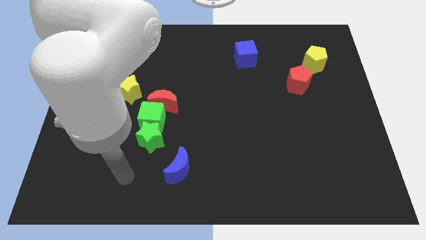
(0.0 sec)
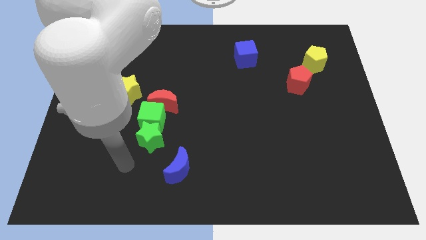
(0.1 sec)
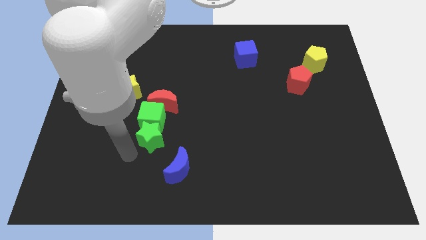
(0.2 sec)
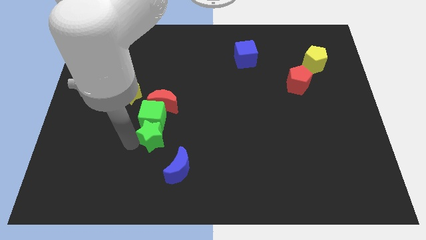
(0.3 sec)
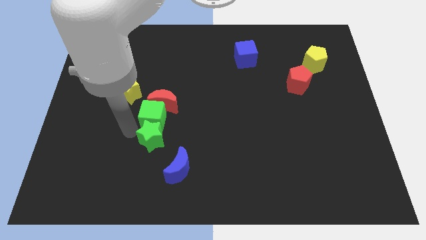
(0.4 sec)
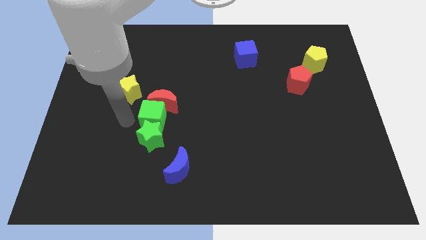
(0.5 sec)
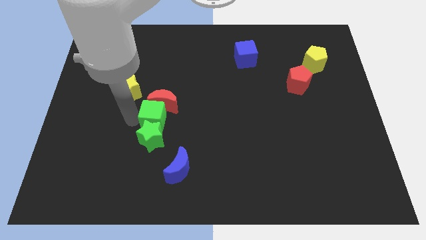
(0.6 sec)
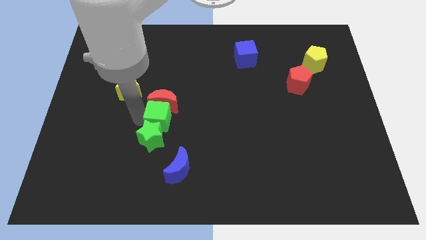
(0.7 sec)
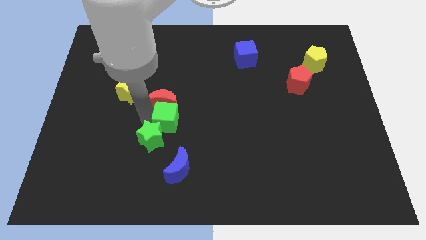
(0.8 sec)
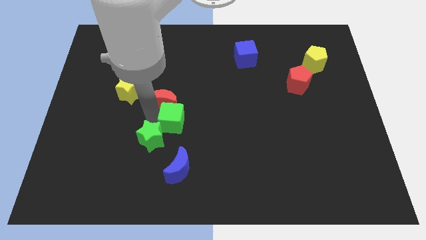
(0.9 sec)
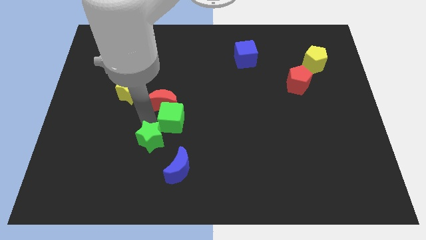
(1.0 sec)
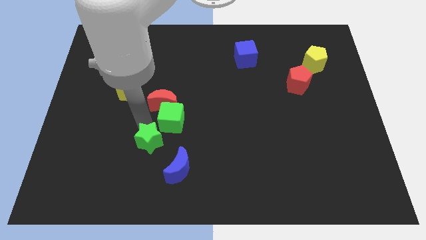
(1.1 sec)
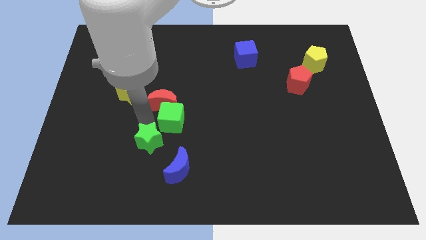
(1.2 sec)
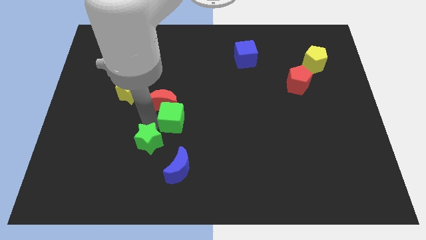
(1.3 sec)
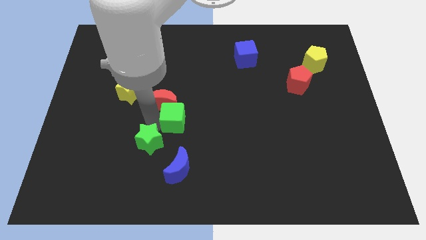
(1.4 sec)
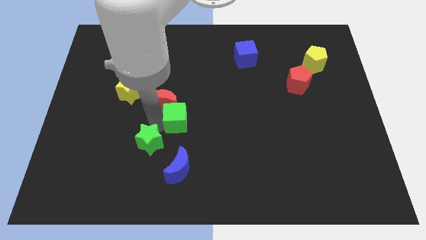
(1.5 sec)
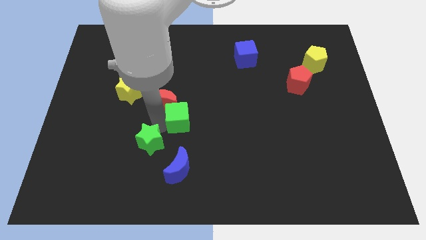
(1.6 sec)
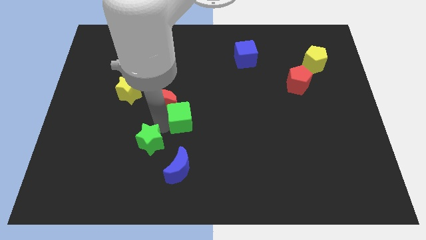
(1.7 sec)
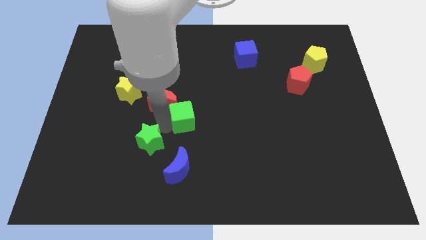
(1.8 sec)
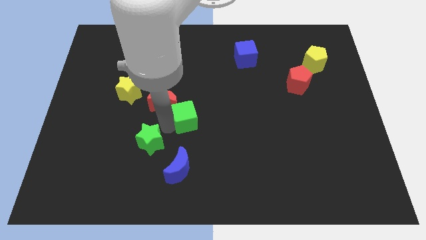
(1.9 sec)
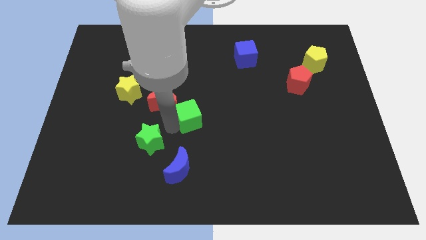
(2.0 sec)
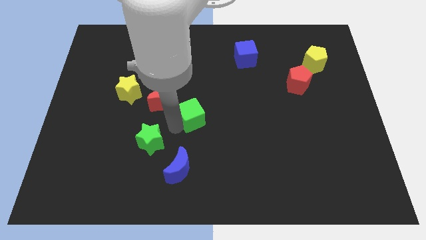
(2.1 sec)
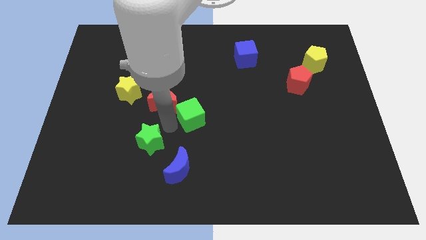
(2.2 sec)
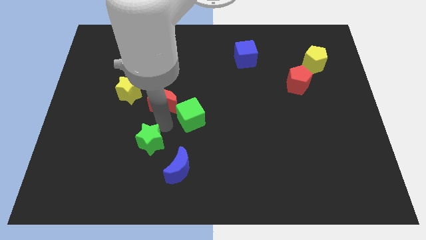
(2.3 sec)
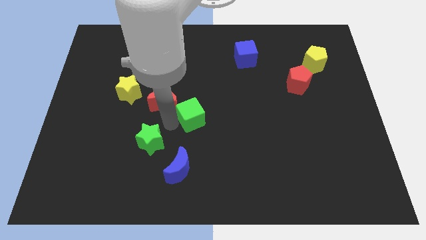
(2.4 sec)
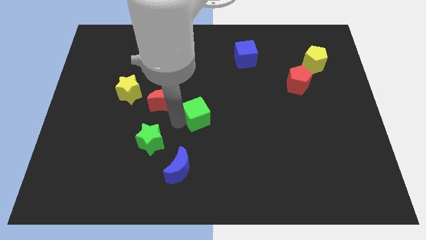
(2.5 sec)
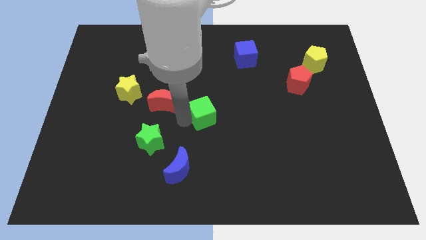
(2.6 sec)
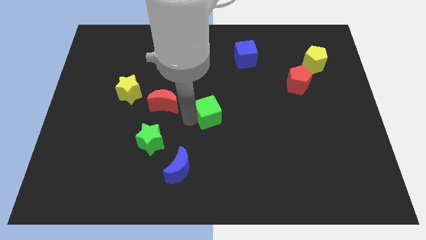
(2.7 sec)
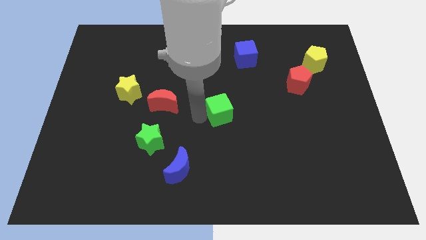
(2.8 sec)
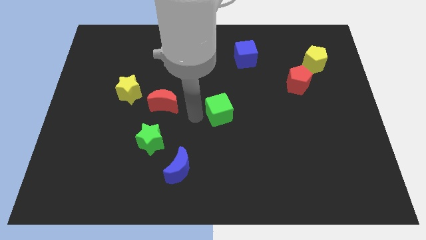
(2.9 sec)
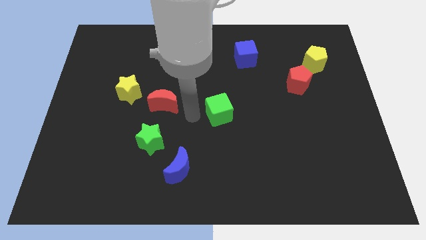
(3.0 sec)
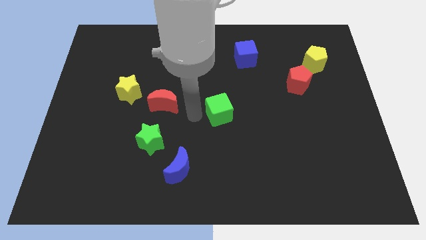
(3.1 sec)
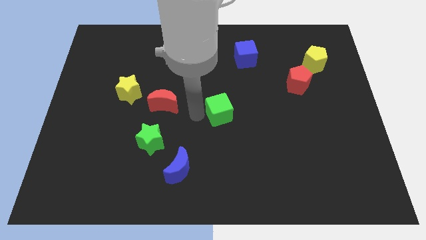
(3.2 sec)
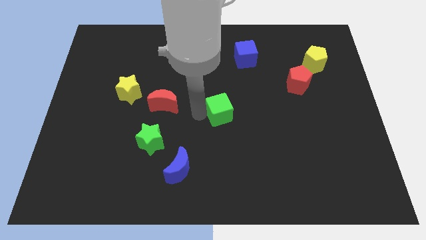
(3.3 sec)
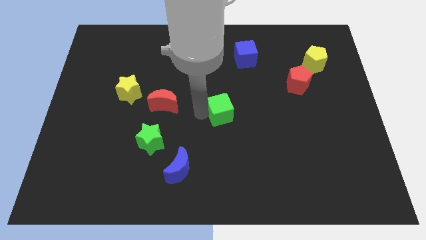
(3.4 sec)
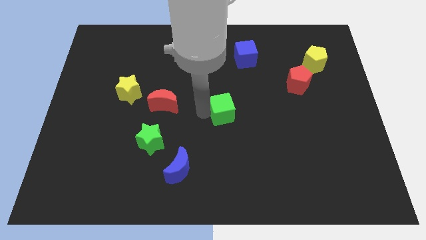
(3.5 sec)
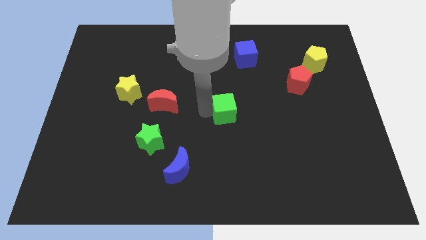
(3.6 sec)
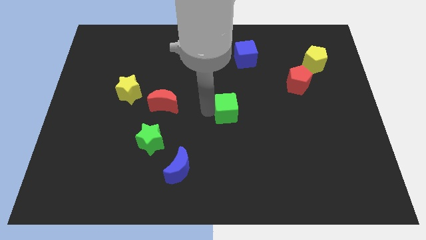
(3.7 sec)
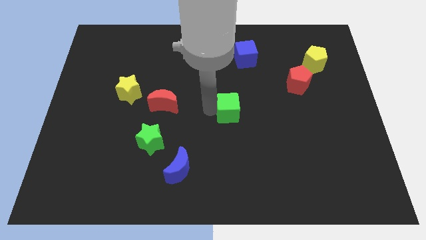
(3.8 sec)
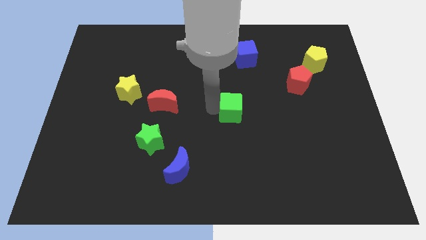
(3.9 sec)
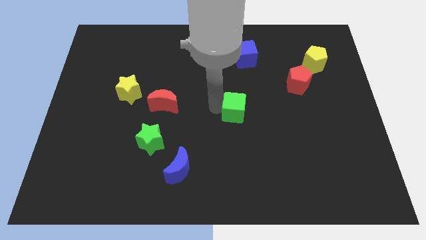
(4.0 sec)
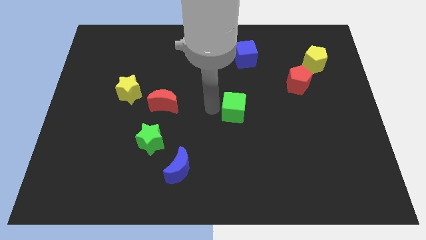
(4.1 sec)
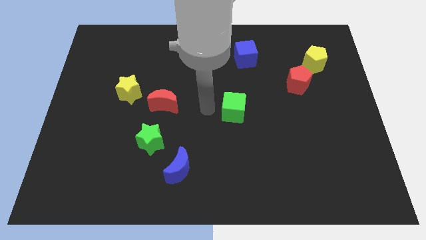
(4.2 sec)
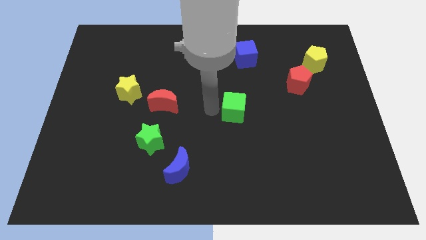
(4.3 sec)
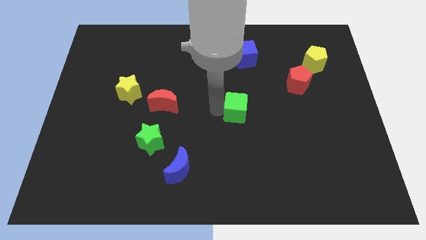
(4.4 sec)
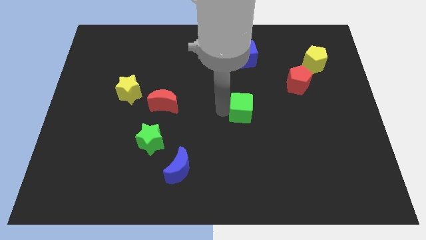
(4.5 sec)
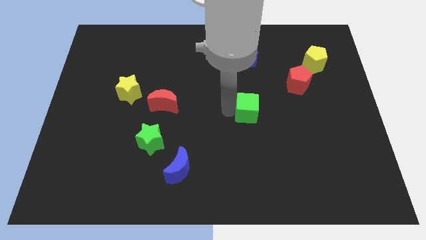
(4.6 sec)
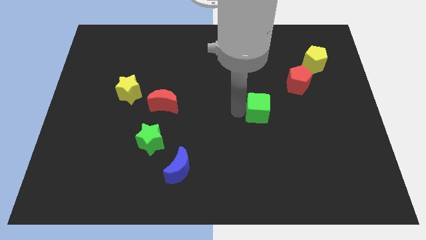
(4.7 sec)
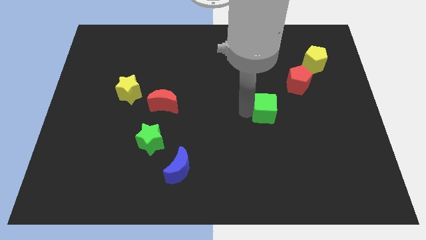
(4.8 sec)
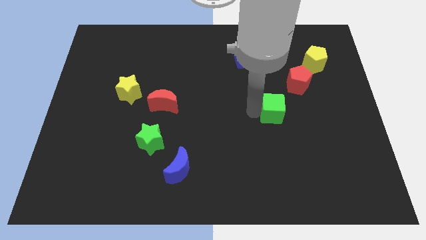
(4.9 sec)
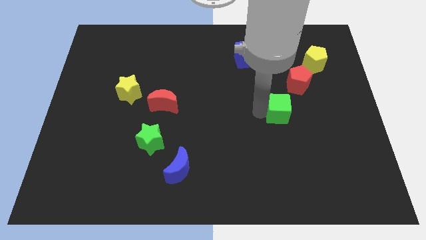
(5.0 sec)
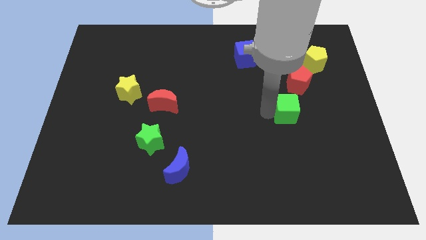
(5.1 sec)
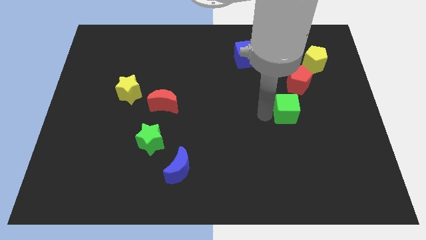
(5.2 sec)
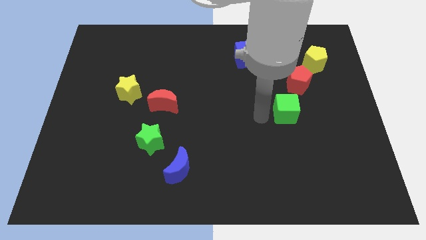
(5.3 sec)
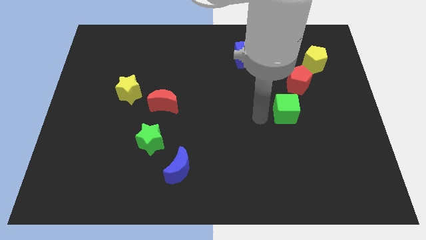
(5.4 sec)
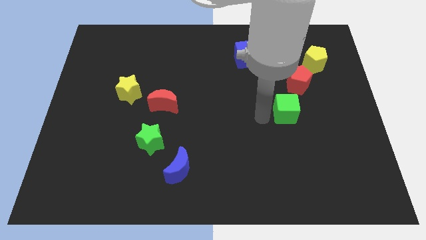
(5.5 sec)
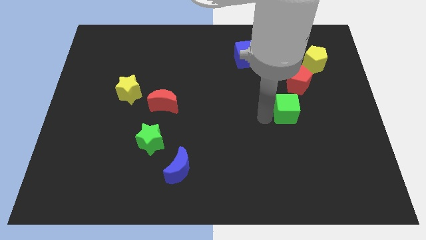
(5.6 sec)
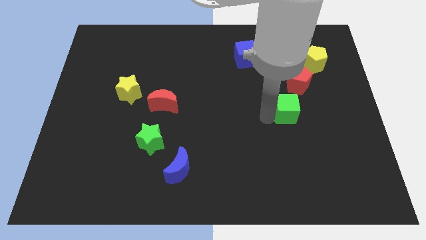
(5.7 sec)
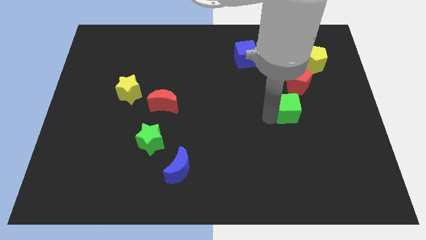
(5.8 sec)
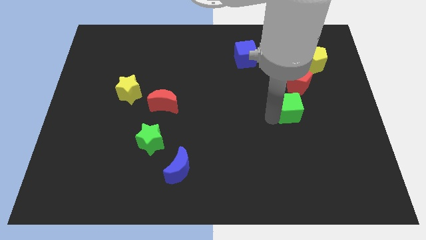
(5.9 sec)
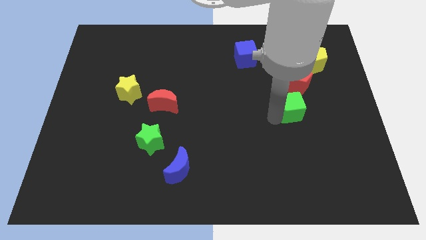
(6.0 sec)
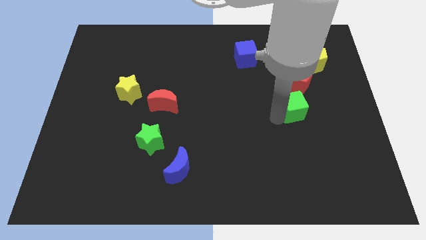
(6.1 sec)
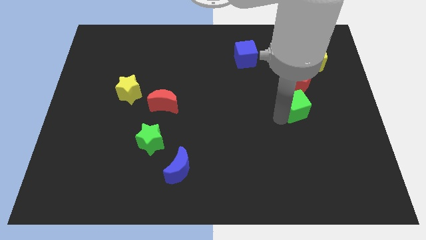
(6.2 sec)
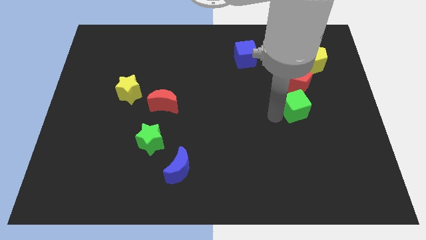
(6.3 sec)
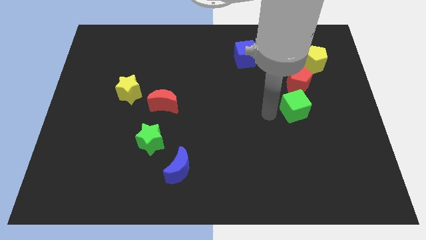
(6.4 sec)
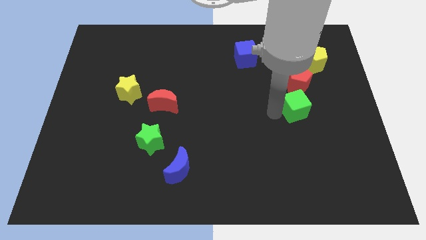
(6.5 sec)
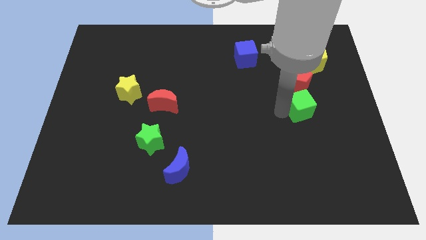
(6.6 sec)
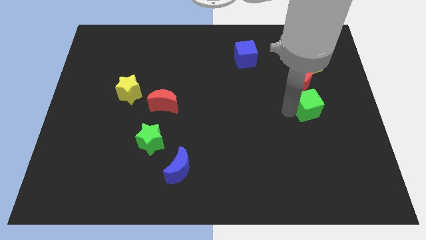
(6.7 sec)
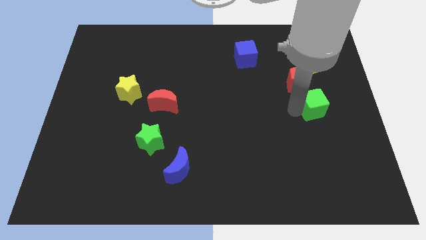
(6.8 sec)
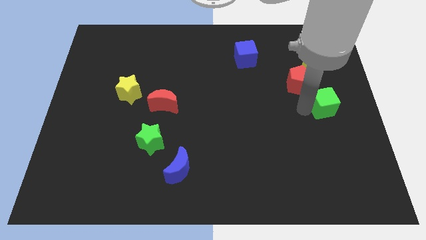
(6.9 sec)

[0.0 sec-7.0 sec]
put the green cube to the right side

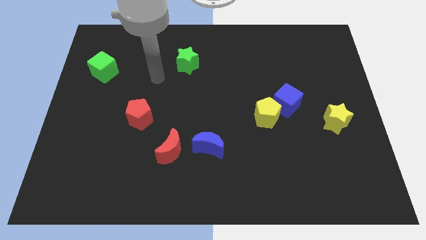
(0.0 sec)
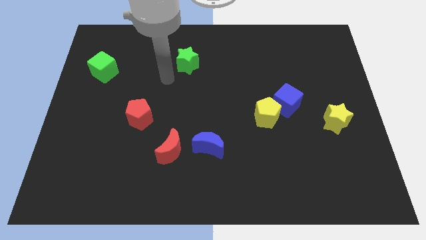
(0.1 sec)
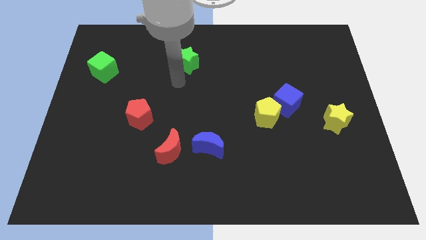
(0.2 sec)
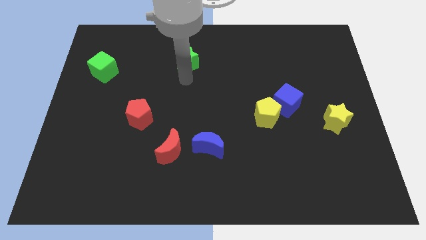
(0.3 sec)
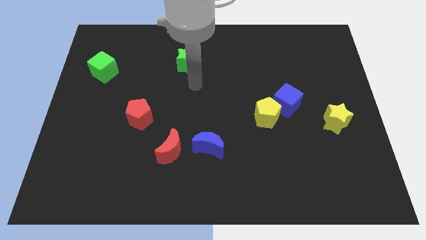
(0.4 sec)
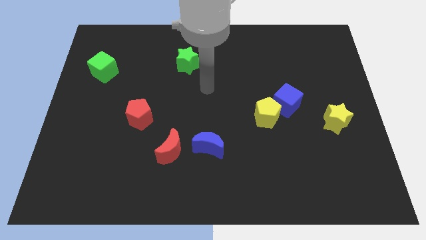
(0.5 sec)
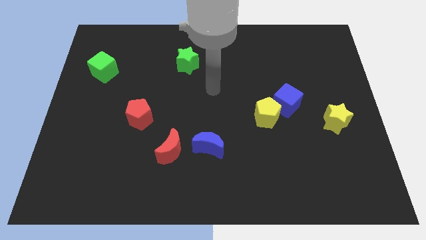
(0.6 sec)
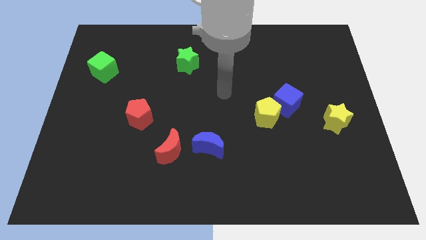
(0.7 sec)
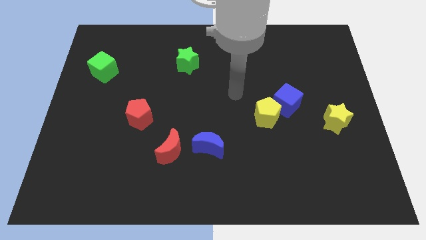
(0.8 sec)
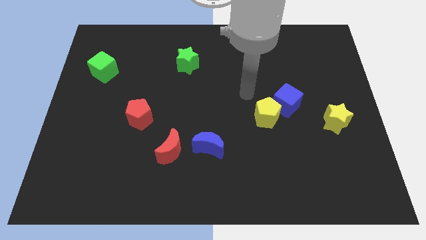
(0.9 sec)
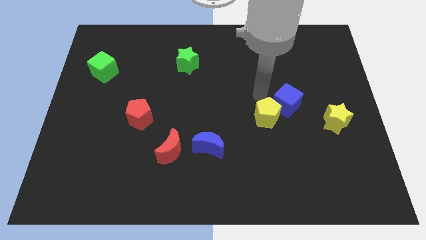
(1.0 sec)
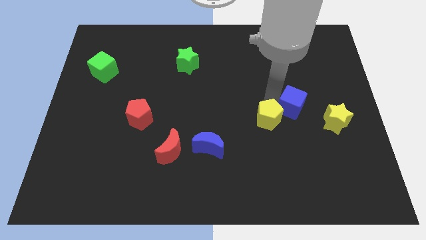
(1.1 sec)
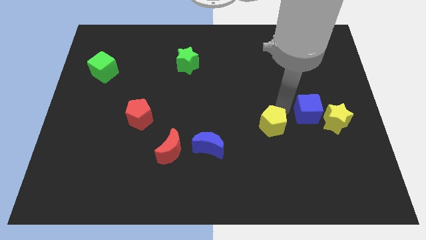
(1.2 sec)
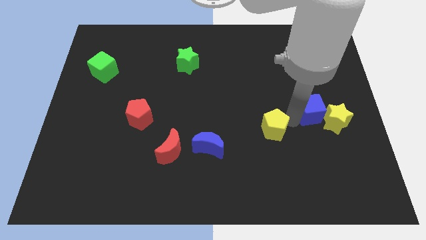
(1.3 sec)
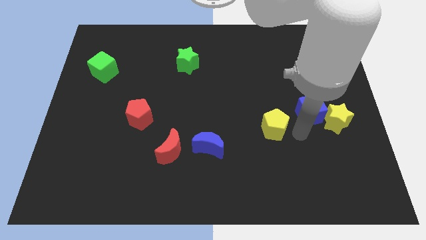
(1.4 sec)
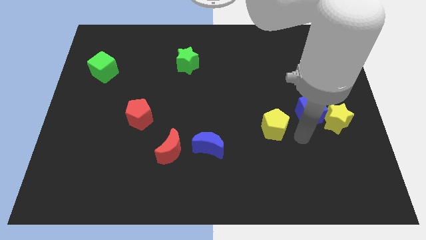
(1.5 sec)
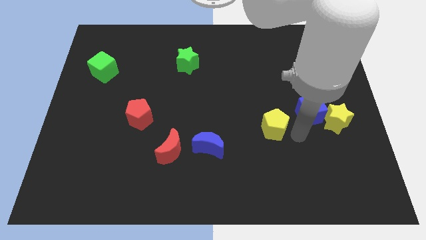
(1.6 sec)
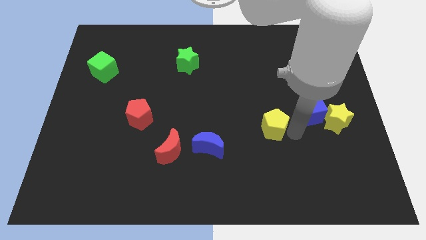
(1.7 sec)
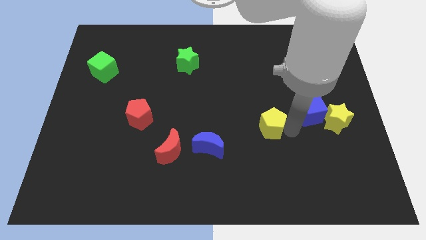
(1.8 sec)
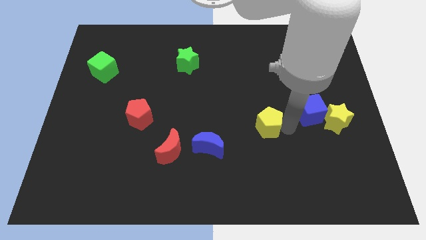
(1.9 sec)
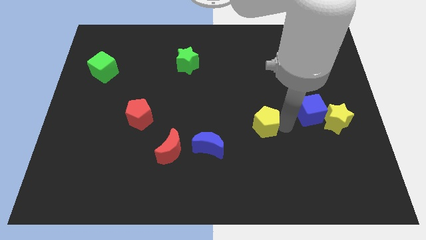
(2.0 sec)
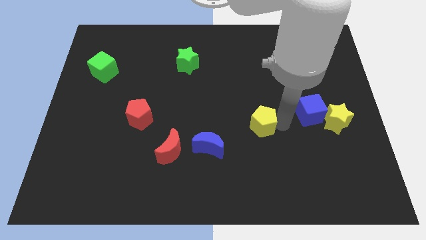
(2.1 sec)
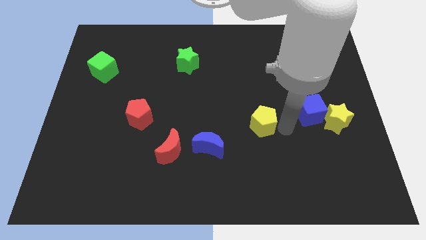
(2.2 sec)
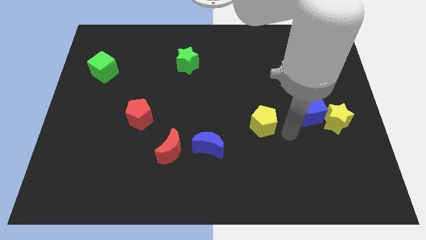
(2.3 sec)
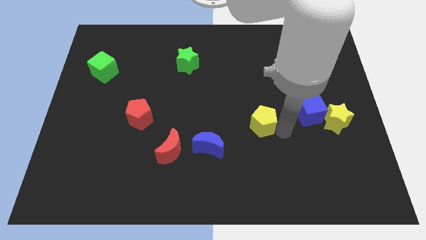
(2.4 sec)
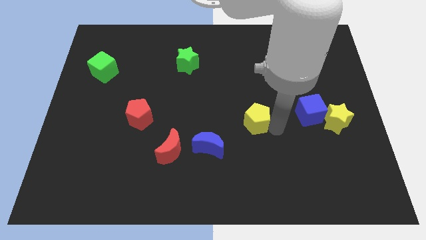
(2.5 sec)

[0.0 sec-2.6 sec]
put the yellow pentagon to the center of the board
